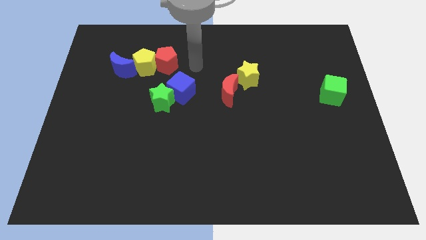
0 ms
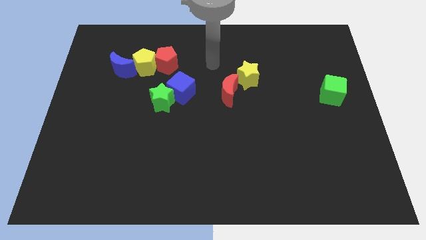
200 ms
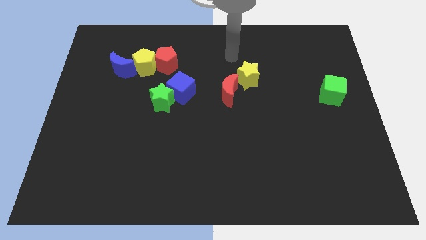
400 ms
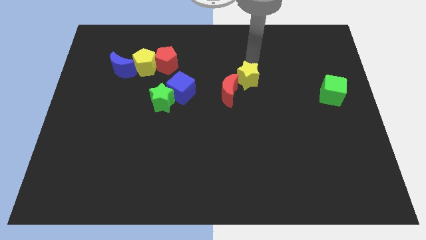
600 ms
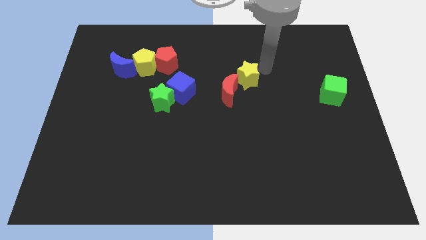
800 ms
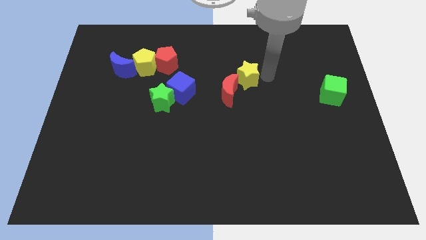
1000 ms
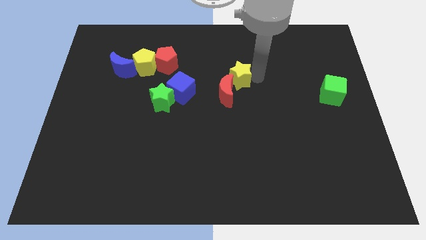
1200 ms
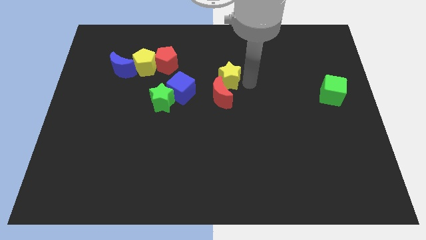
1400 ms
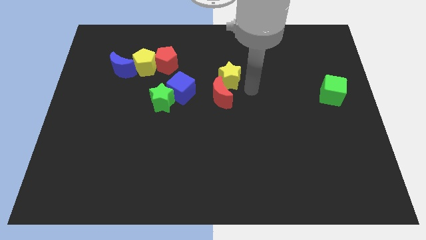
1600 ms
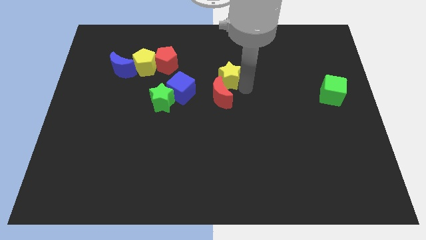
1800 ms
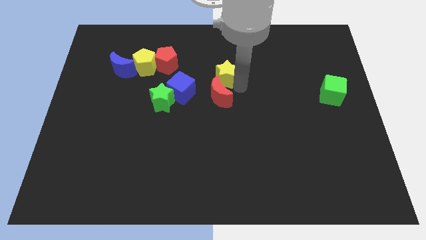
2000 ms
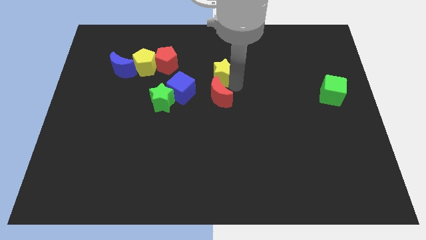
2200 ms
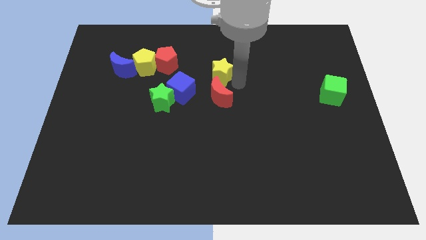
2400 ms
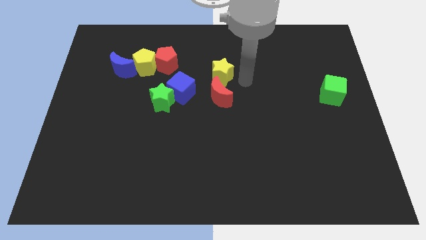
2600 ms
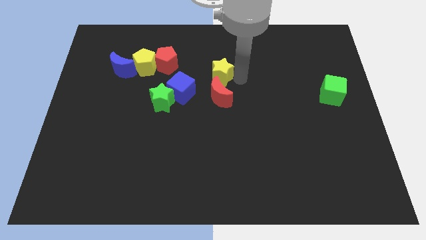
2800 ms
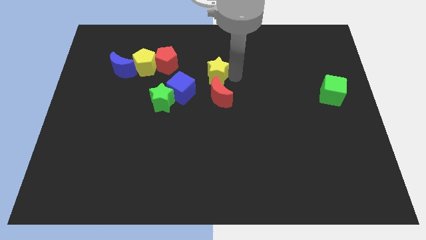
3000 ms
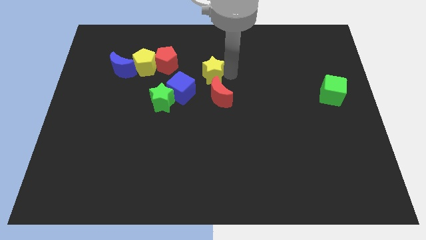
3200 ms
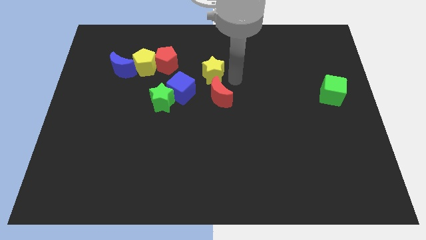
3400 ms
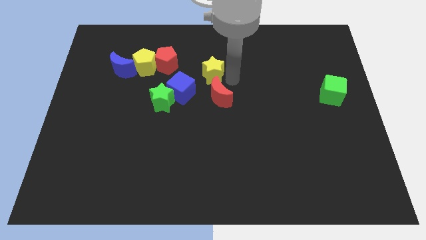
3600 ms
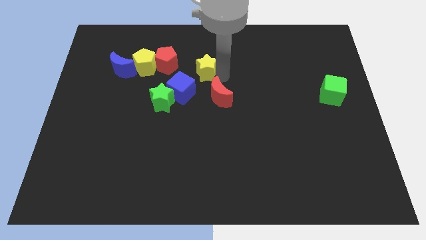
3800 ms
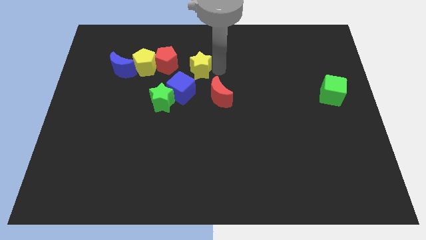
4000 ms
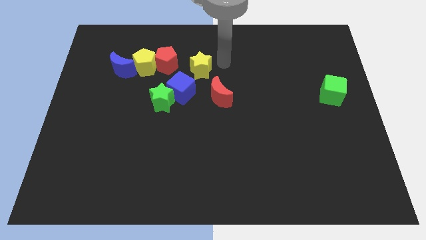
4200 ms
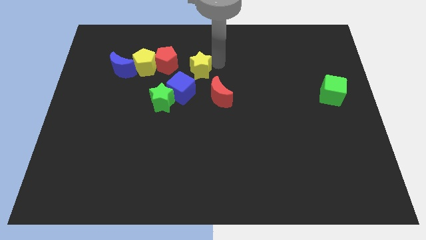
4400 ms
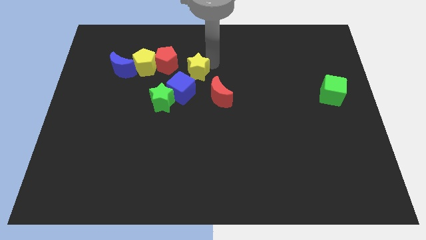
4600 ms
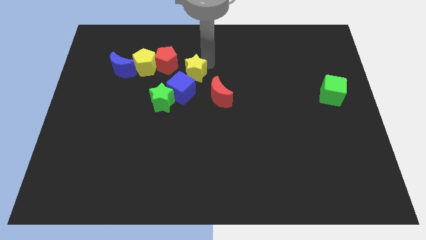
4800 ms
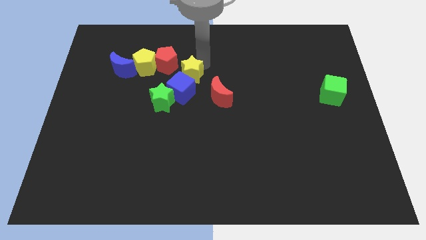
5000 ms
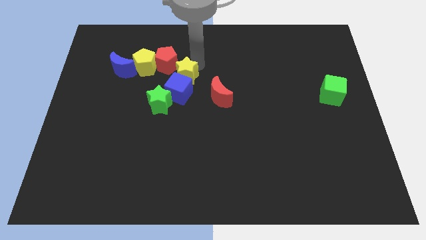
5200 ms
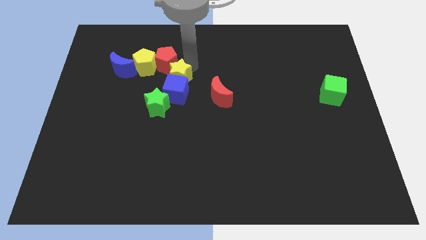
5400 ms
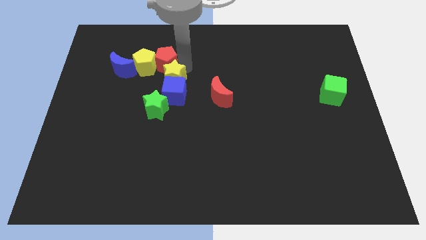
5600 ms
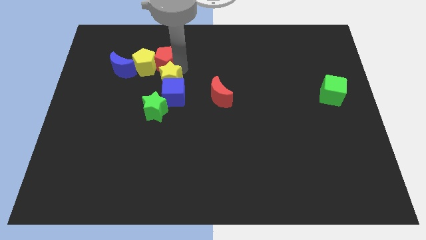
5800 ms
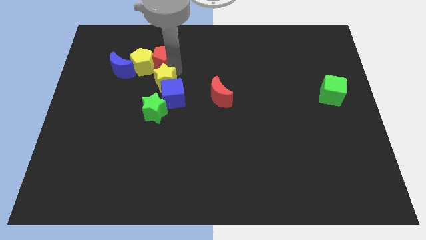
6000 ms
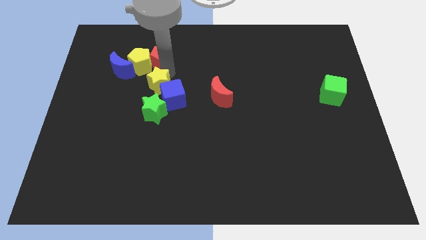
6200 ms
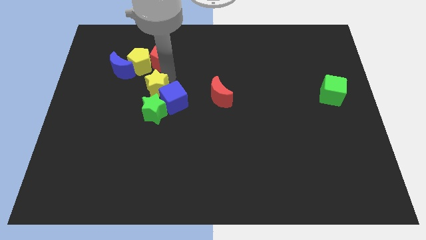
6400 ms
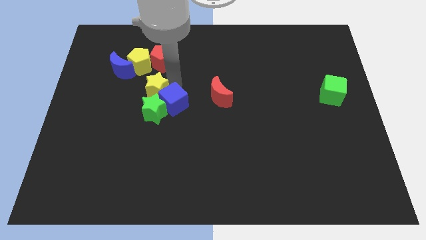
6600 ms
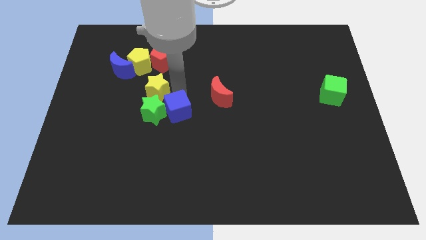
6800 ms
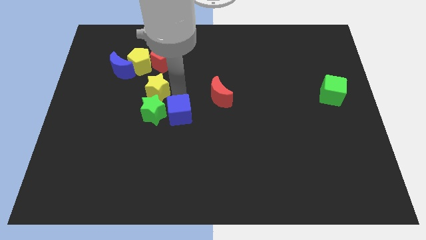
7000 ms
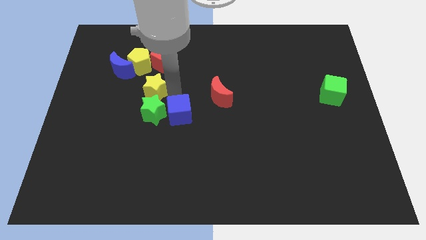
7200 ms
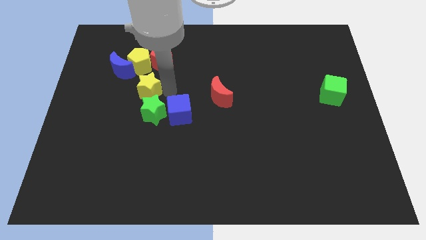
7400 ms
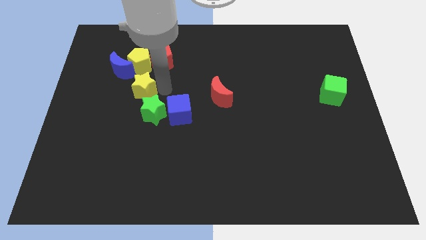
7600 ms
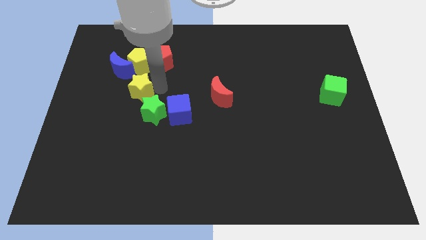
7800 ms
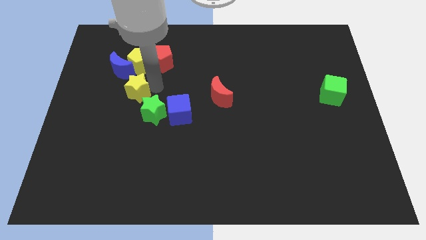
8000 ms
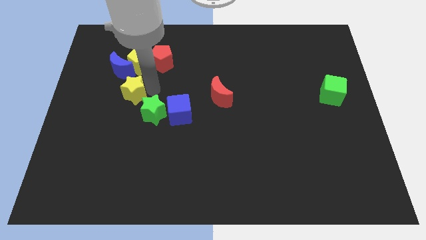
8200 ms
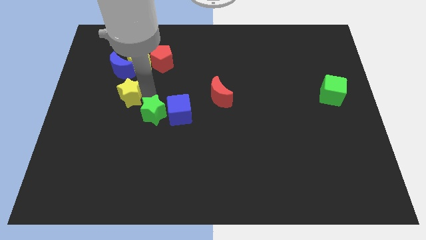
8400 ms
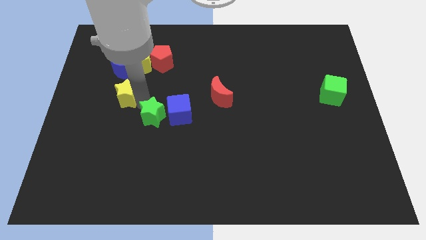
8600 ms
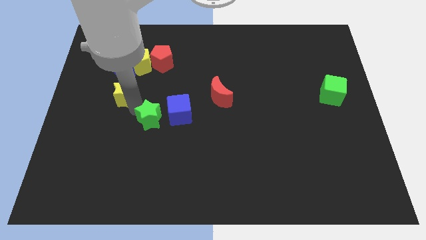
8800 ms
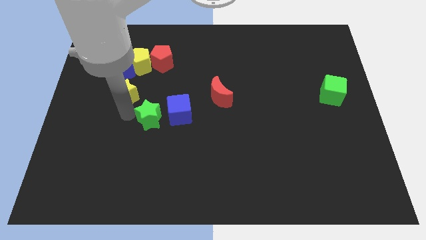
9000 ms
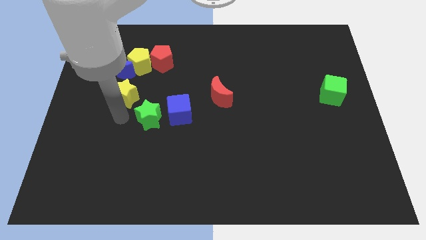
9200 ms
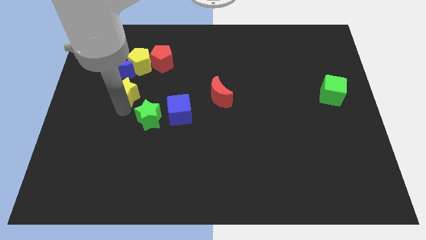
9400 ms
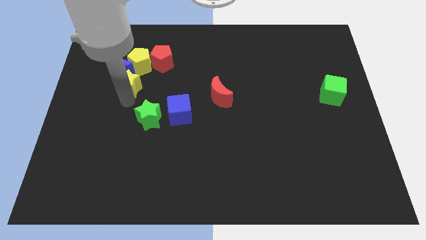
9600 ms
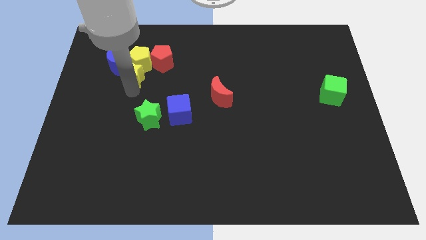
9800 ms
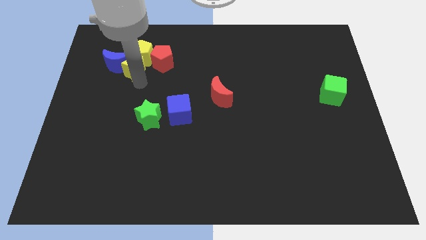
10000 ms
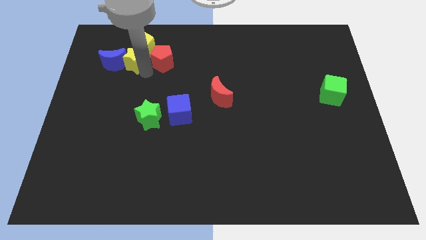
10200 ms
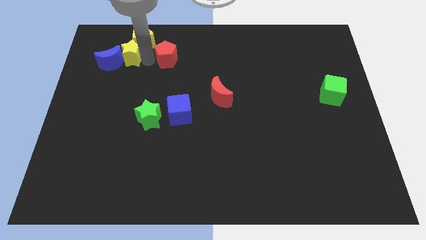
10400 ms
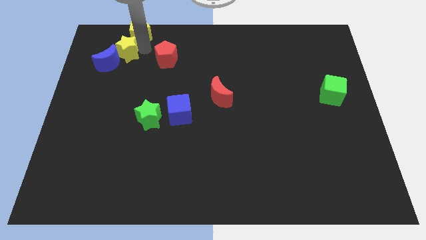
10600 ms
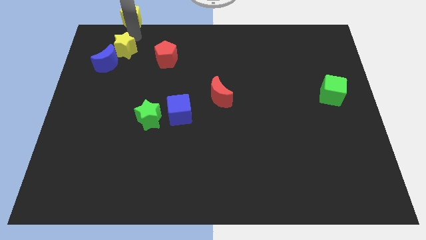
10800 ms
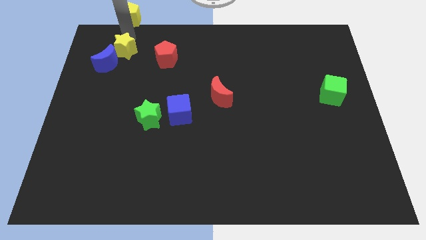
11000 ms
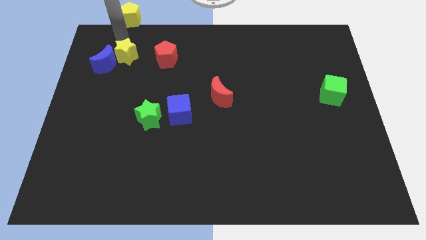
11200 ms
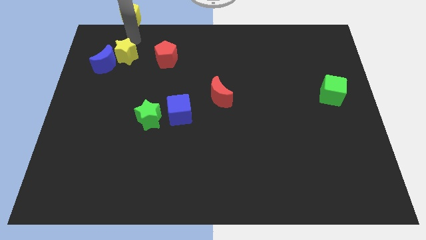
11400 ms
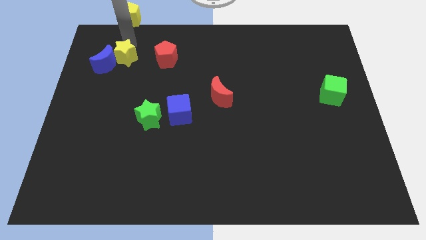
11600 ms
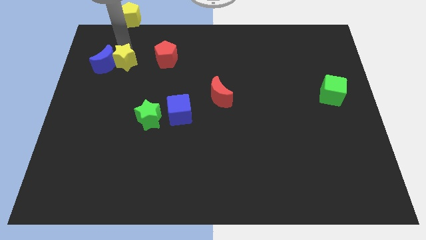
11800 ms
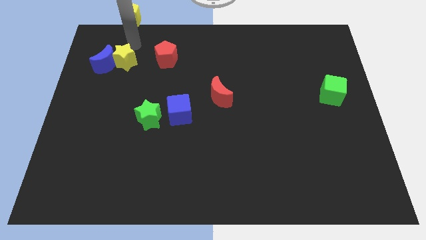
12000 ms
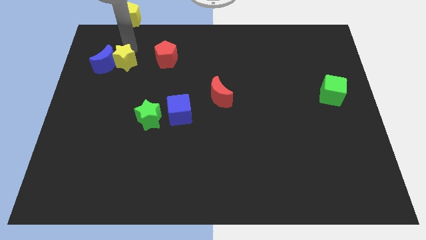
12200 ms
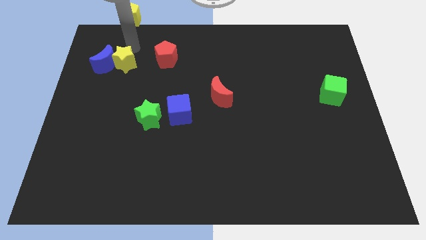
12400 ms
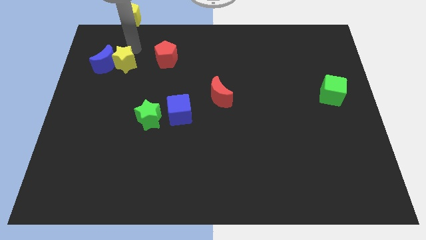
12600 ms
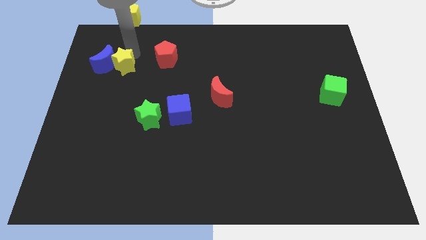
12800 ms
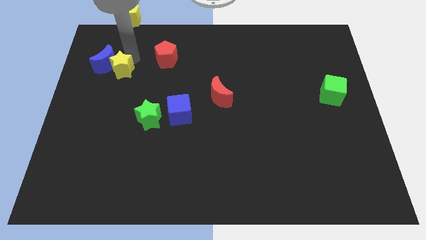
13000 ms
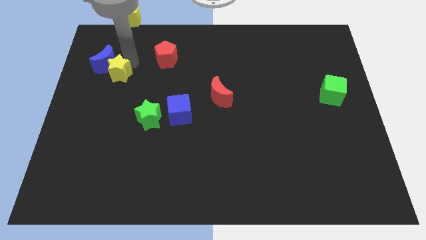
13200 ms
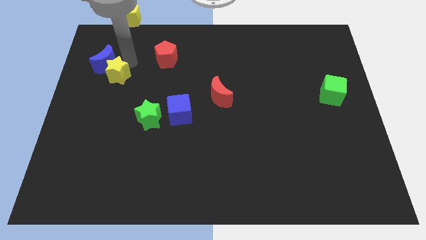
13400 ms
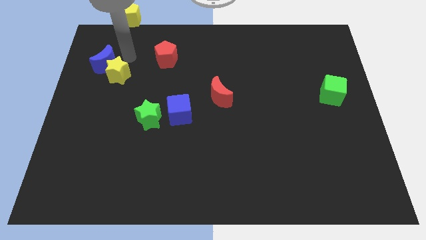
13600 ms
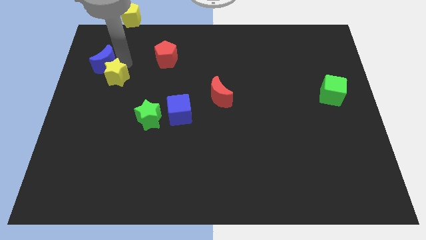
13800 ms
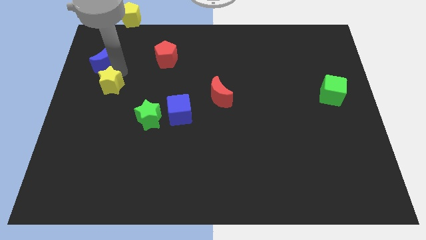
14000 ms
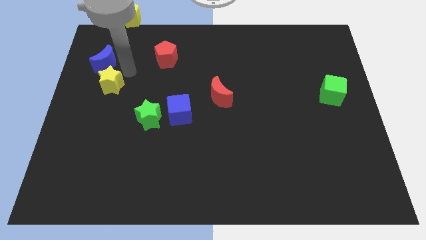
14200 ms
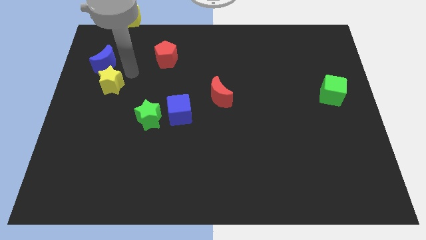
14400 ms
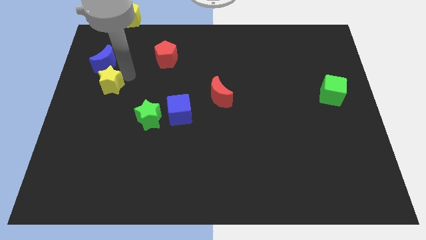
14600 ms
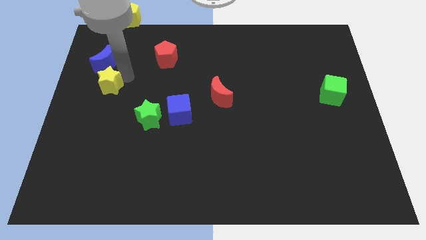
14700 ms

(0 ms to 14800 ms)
slide the yellow star to the left side
